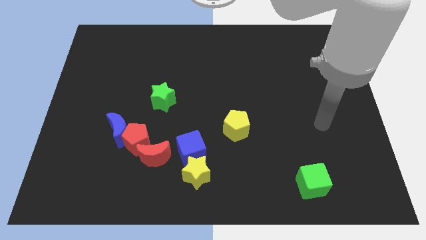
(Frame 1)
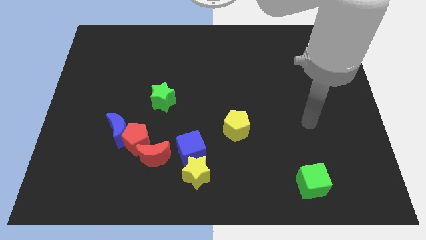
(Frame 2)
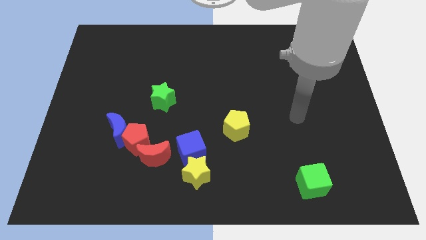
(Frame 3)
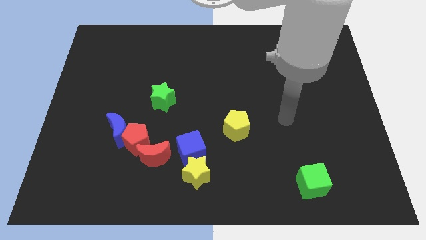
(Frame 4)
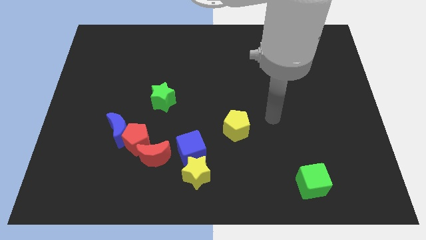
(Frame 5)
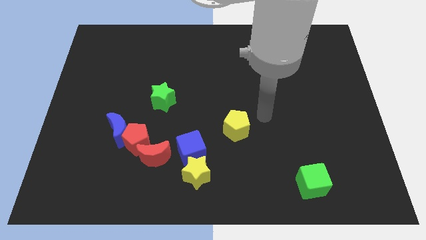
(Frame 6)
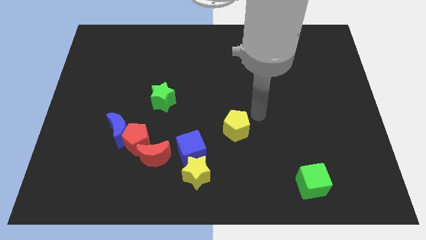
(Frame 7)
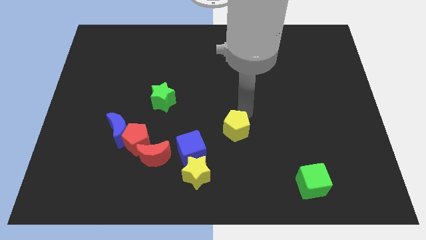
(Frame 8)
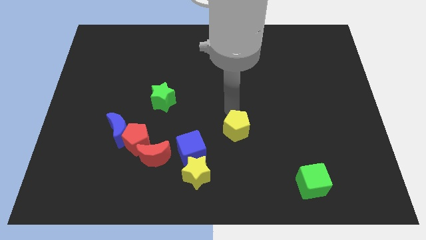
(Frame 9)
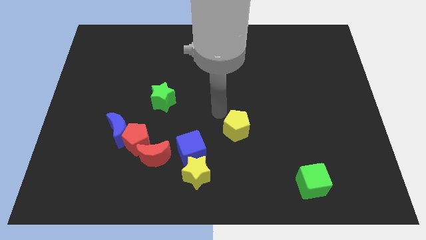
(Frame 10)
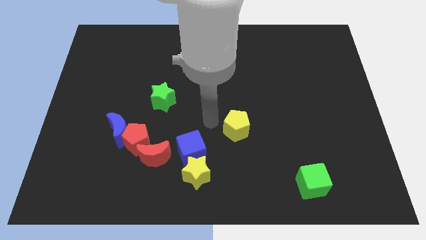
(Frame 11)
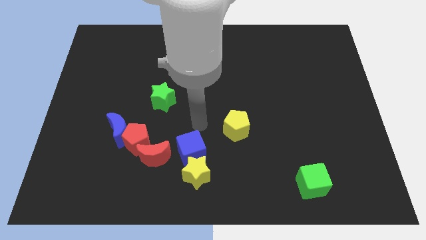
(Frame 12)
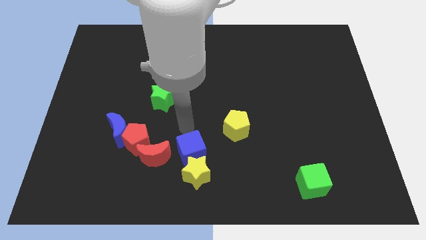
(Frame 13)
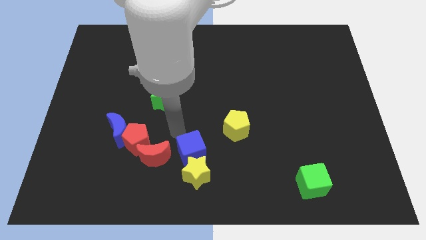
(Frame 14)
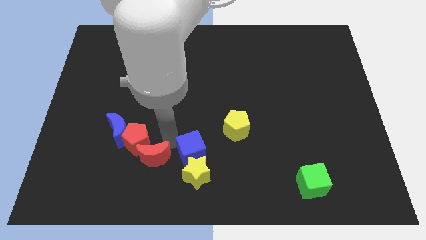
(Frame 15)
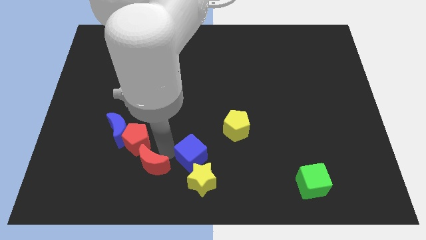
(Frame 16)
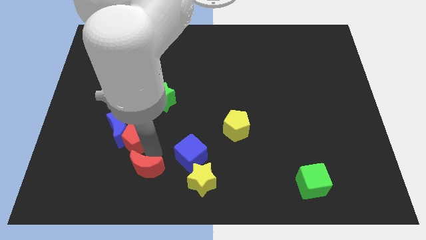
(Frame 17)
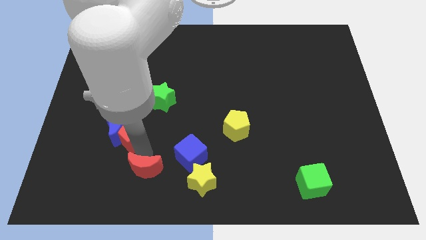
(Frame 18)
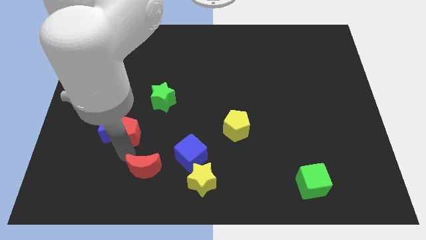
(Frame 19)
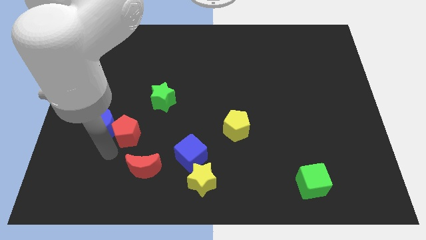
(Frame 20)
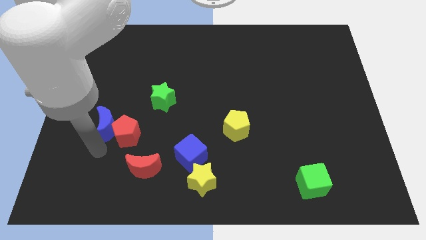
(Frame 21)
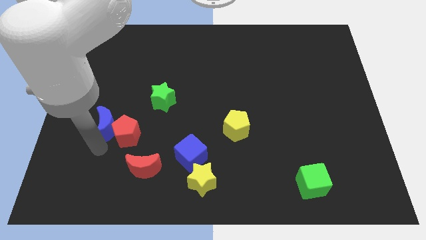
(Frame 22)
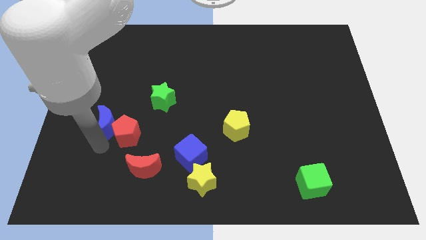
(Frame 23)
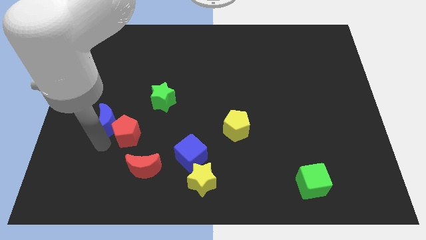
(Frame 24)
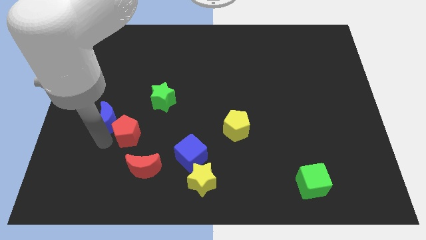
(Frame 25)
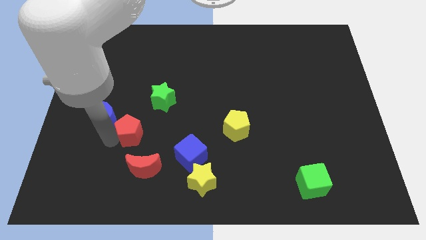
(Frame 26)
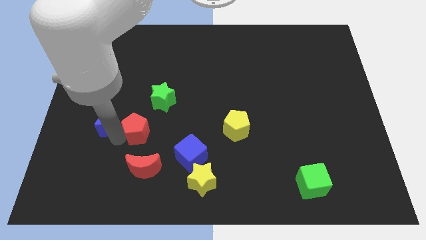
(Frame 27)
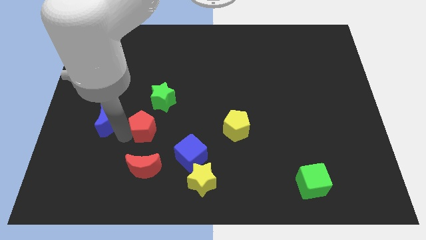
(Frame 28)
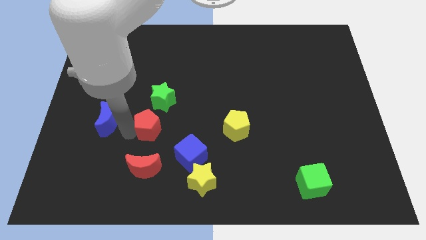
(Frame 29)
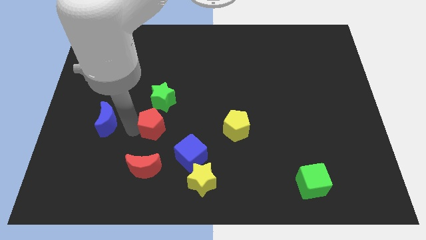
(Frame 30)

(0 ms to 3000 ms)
pull the blue moon apart from the red pentagon

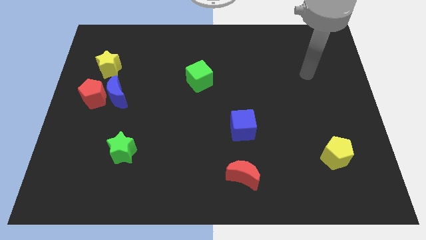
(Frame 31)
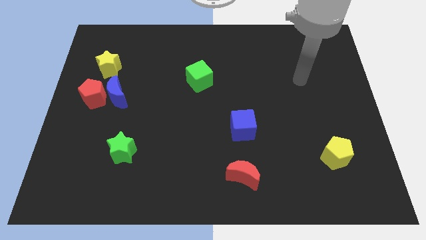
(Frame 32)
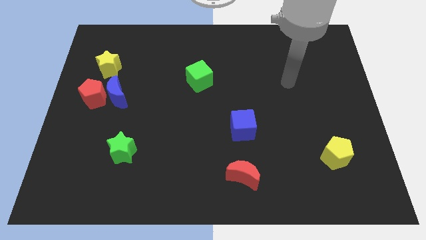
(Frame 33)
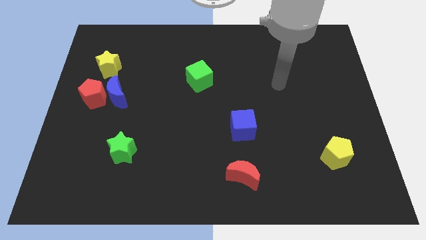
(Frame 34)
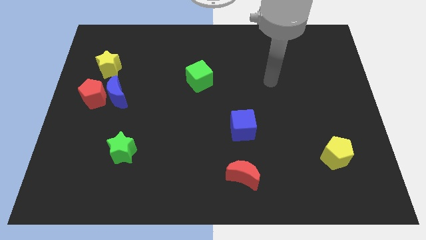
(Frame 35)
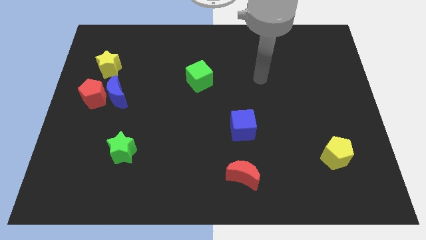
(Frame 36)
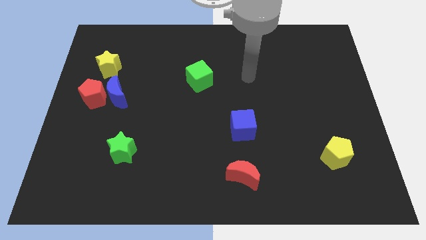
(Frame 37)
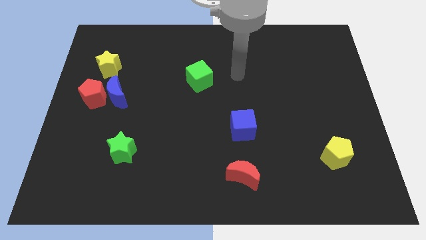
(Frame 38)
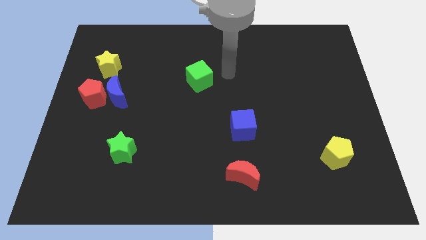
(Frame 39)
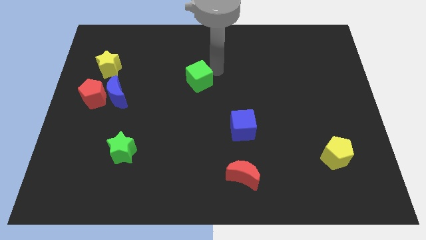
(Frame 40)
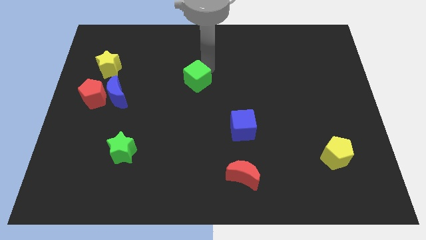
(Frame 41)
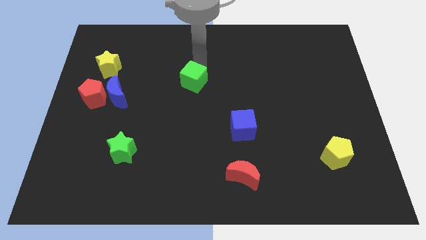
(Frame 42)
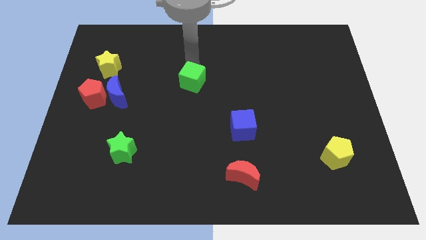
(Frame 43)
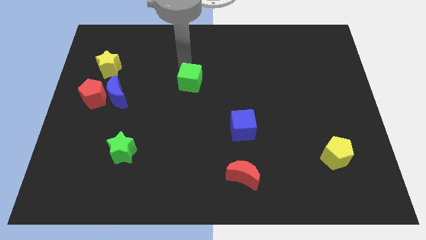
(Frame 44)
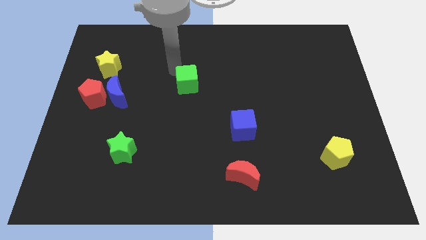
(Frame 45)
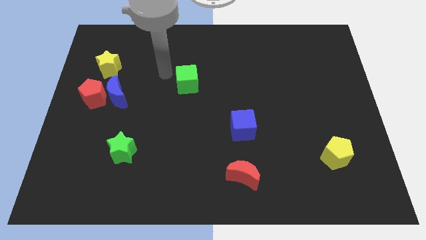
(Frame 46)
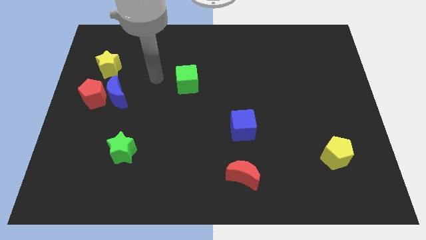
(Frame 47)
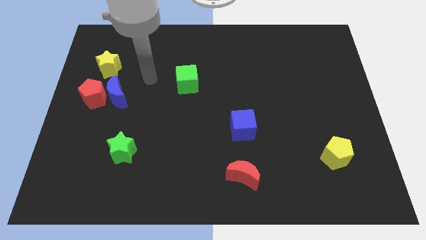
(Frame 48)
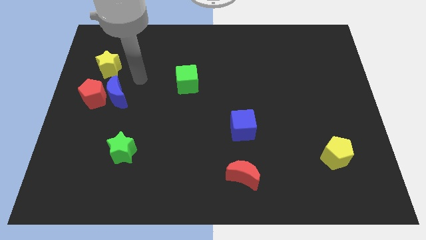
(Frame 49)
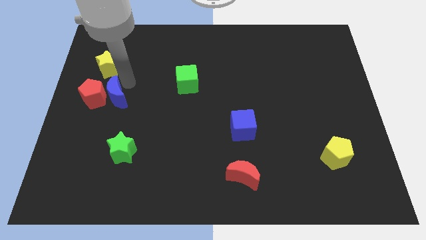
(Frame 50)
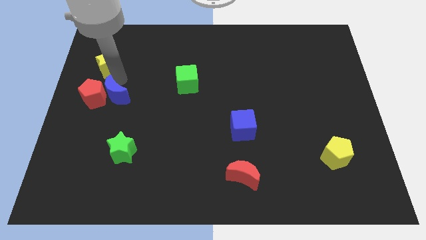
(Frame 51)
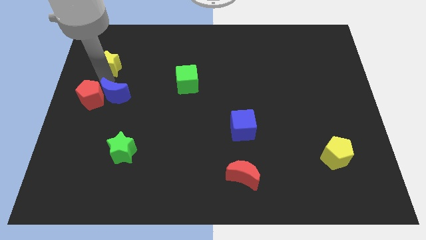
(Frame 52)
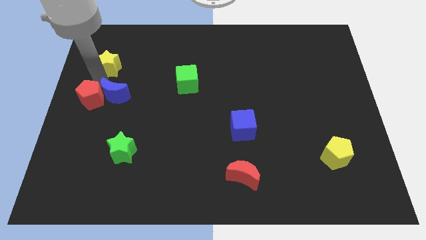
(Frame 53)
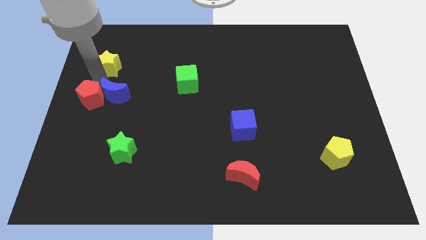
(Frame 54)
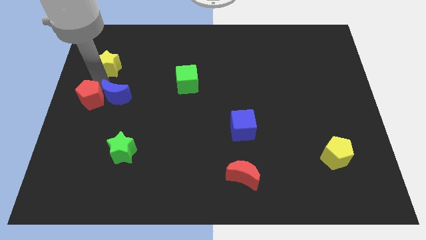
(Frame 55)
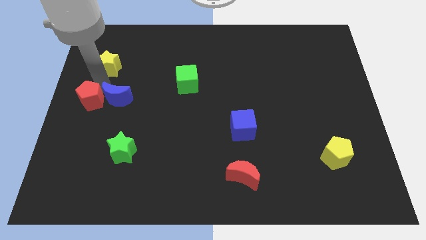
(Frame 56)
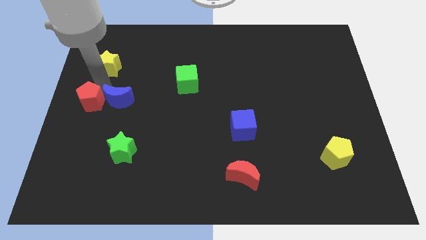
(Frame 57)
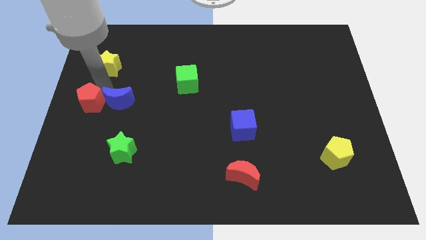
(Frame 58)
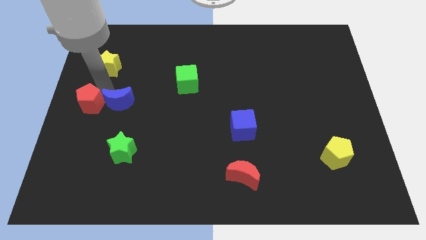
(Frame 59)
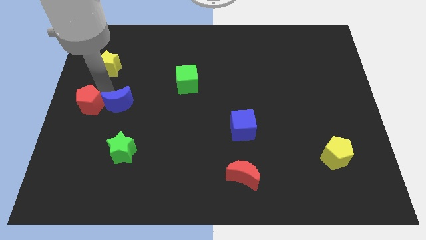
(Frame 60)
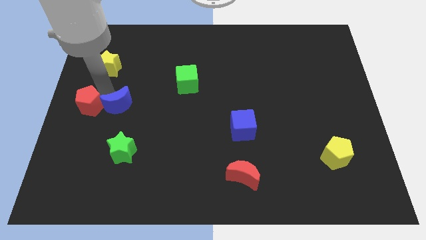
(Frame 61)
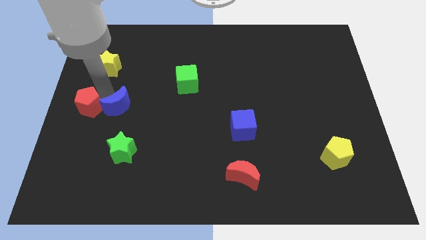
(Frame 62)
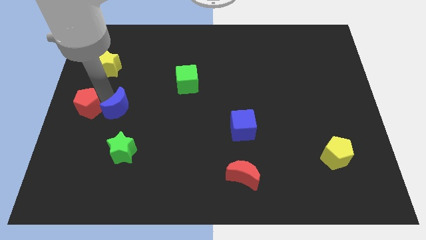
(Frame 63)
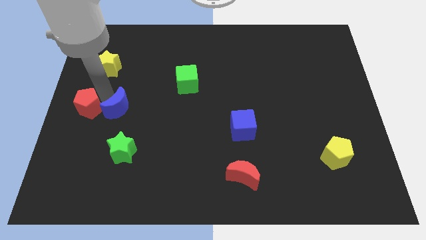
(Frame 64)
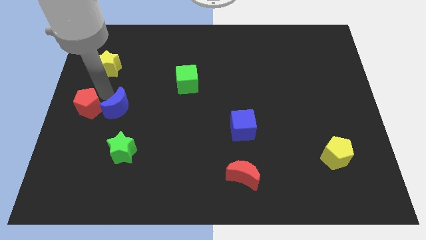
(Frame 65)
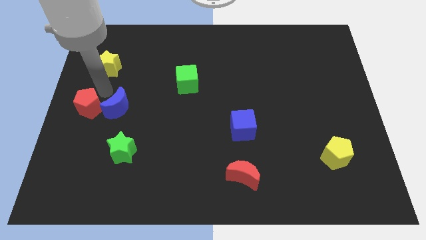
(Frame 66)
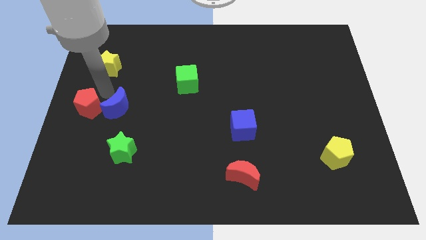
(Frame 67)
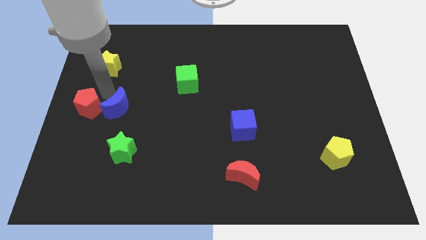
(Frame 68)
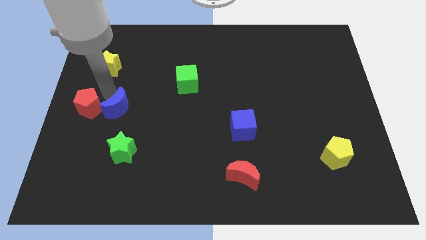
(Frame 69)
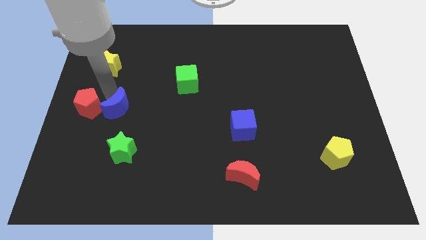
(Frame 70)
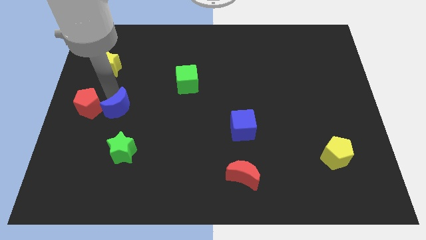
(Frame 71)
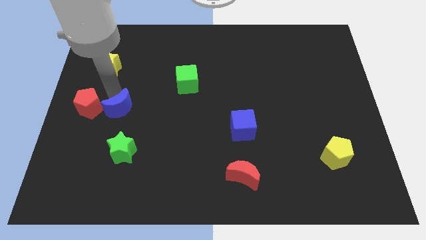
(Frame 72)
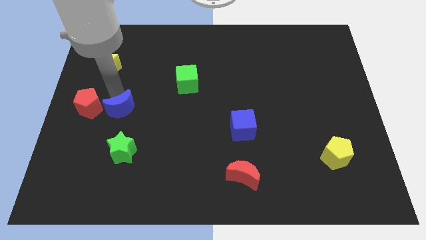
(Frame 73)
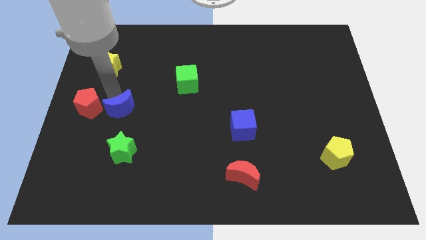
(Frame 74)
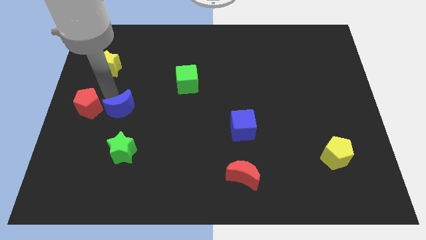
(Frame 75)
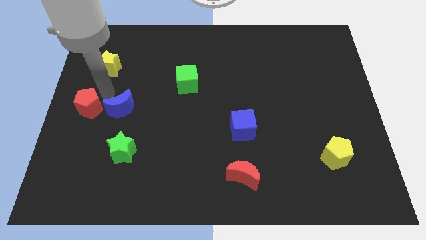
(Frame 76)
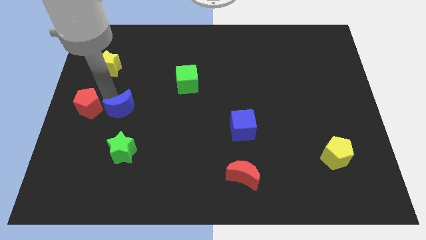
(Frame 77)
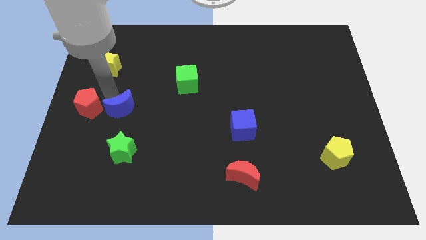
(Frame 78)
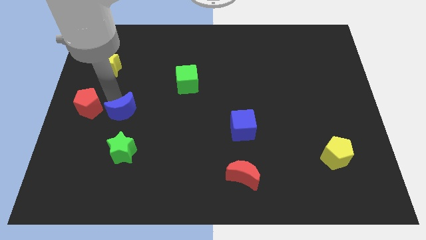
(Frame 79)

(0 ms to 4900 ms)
separate the blue moon from the red pentagon and yellow star

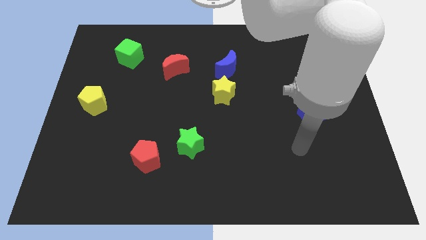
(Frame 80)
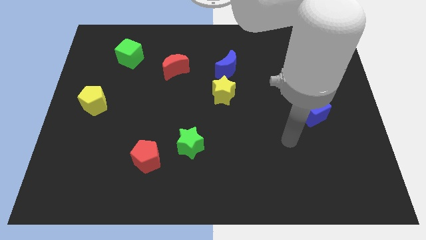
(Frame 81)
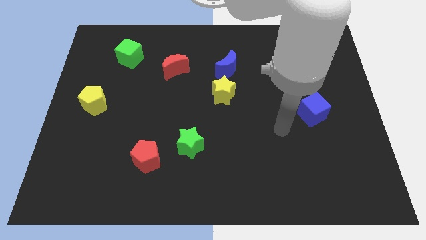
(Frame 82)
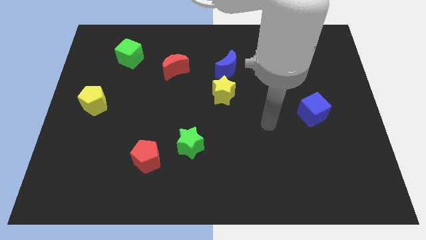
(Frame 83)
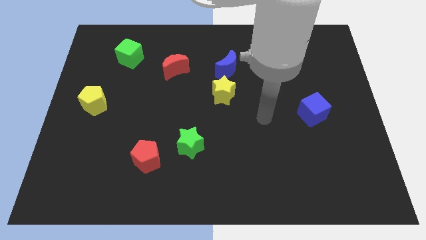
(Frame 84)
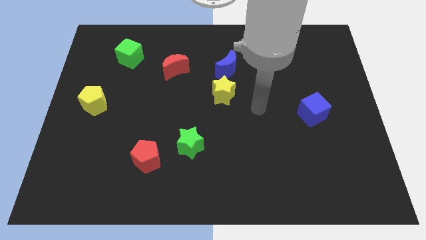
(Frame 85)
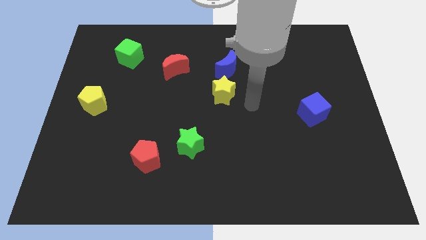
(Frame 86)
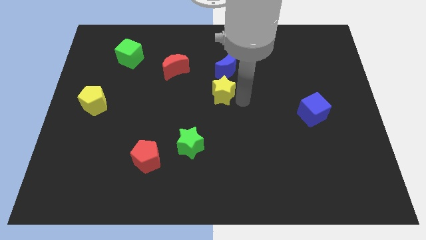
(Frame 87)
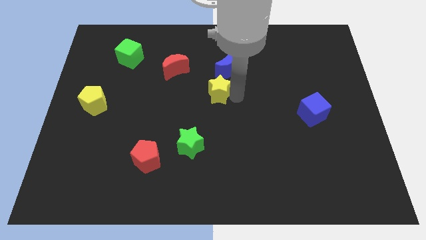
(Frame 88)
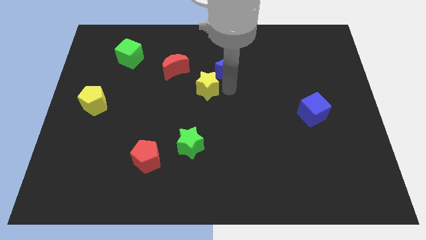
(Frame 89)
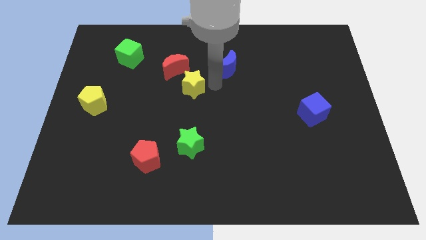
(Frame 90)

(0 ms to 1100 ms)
pull the blue moon apart from the yellow star

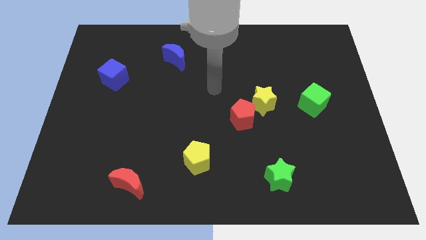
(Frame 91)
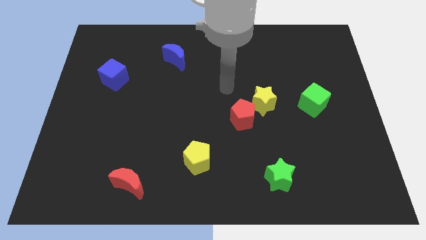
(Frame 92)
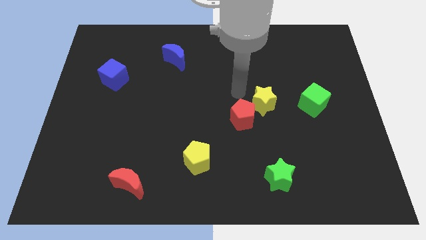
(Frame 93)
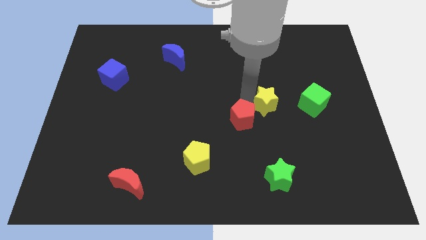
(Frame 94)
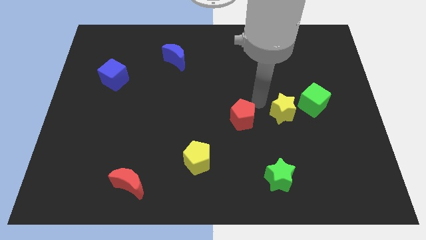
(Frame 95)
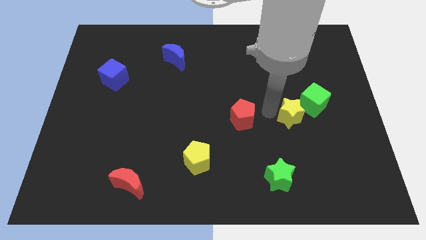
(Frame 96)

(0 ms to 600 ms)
separate the red pentagon from the yellow star
